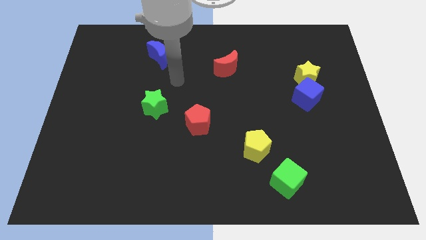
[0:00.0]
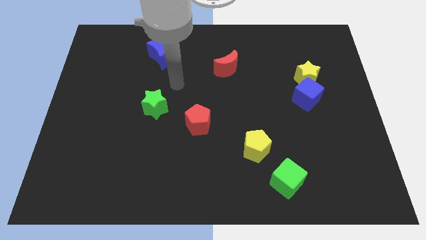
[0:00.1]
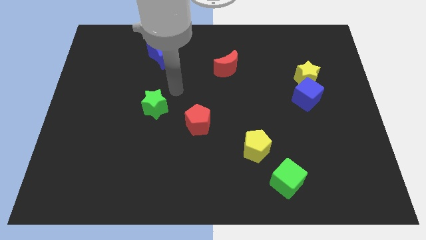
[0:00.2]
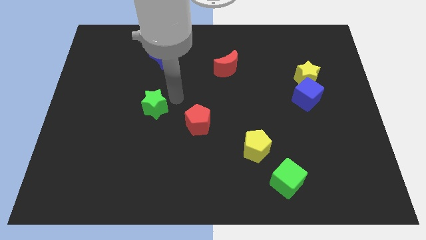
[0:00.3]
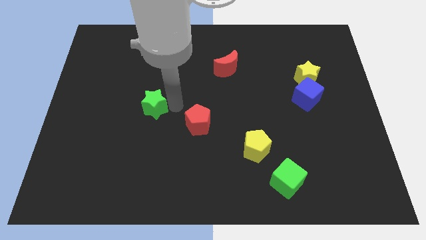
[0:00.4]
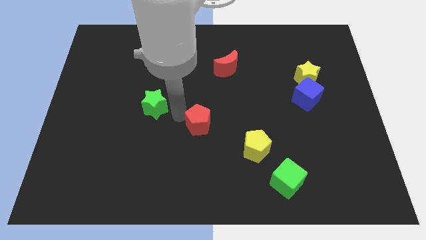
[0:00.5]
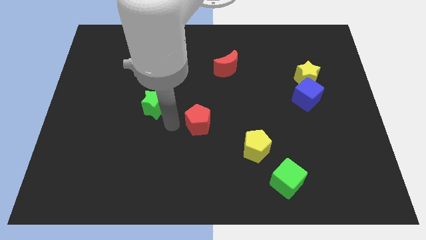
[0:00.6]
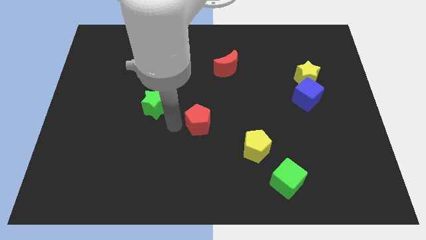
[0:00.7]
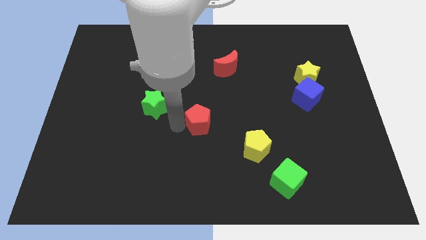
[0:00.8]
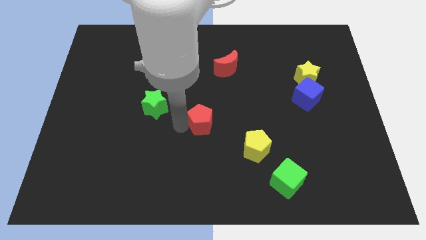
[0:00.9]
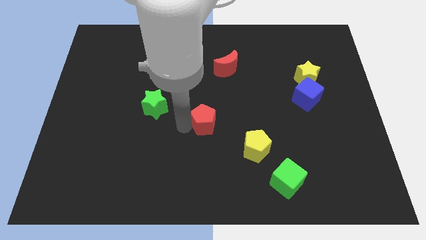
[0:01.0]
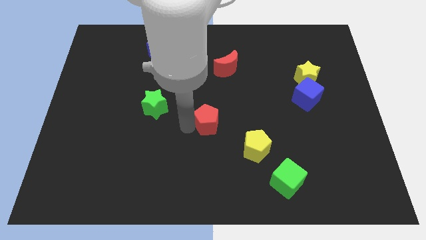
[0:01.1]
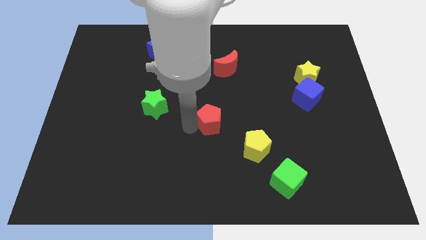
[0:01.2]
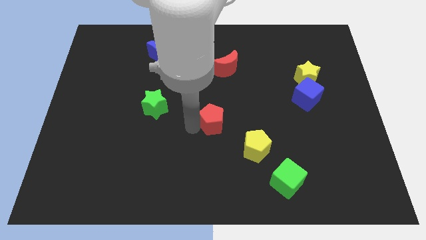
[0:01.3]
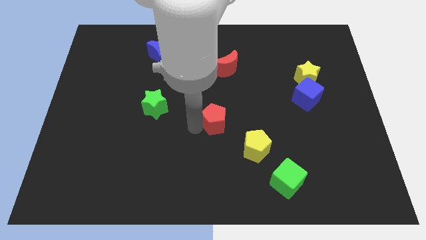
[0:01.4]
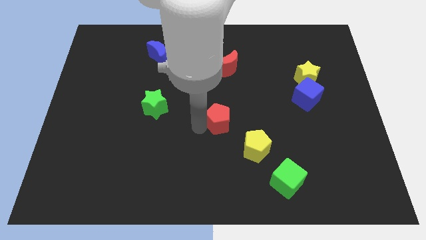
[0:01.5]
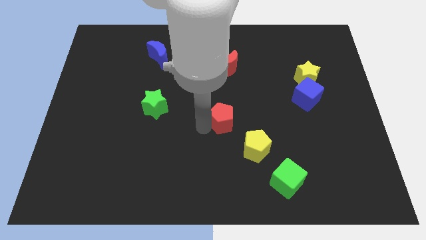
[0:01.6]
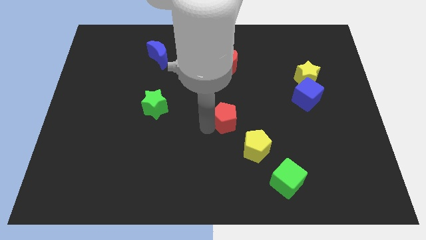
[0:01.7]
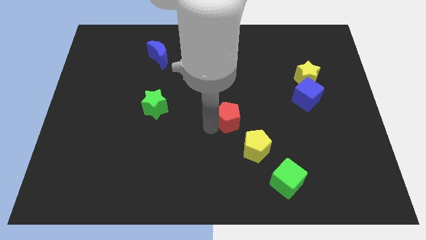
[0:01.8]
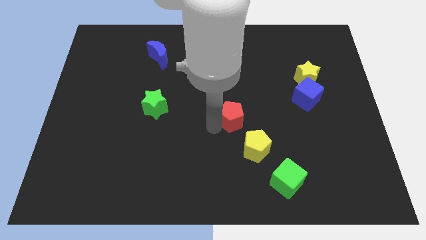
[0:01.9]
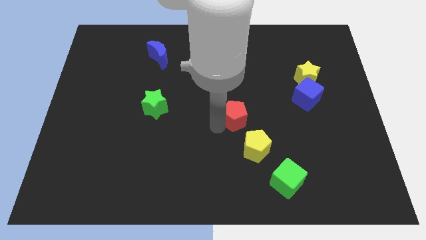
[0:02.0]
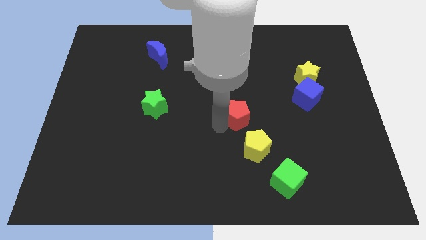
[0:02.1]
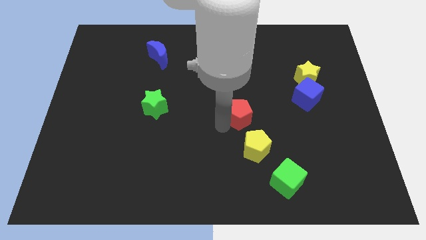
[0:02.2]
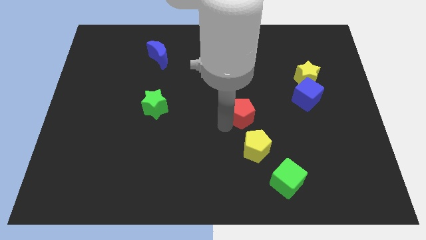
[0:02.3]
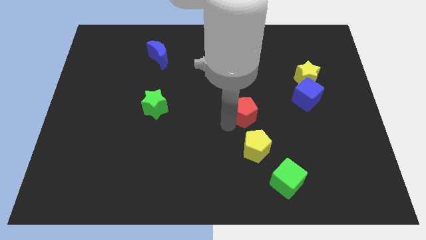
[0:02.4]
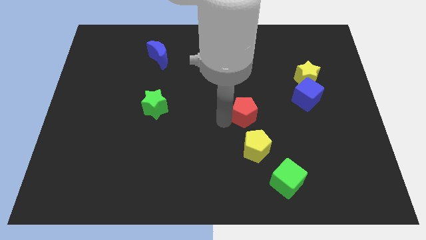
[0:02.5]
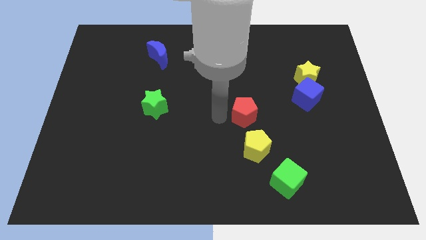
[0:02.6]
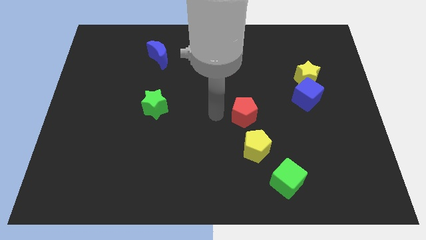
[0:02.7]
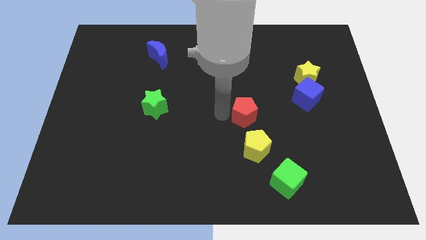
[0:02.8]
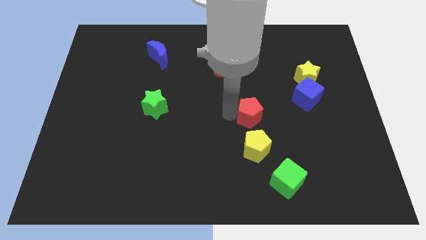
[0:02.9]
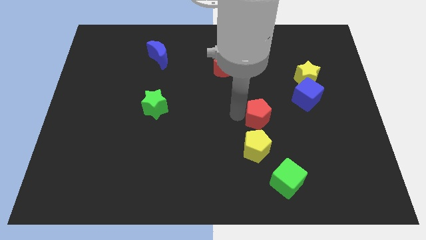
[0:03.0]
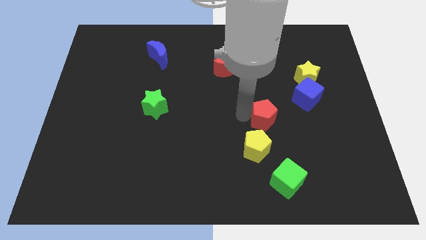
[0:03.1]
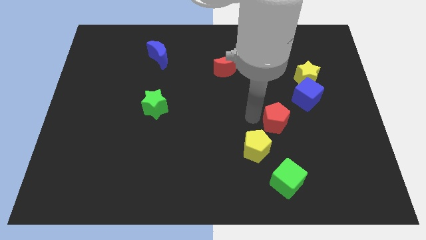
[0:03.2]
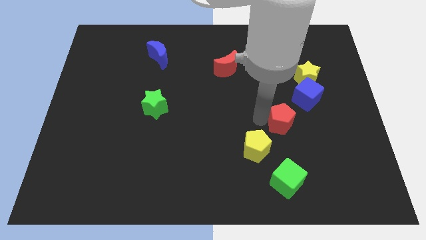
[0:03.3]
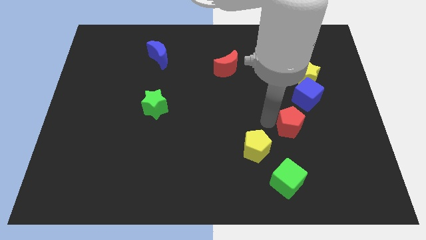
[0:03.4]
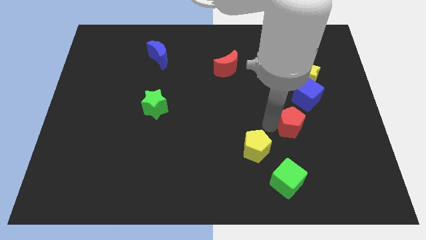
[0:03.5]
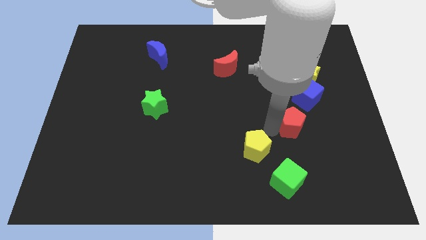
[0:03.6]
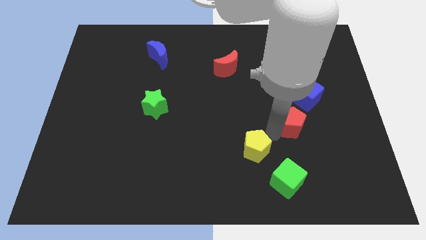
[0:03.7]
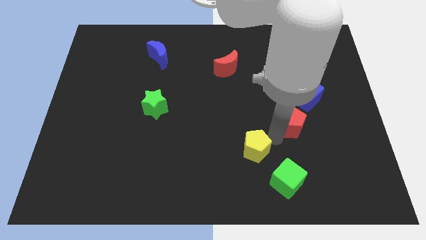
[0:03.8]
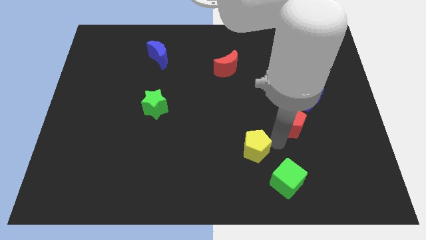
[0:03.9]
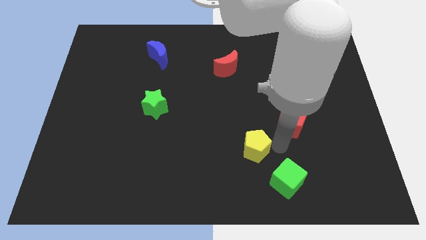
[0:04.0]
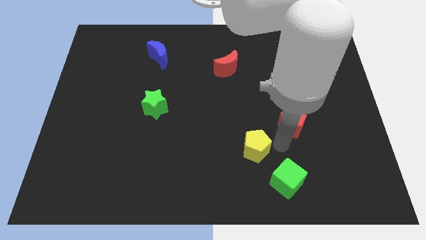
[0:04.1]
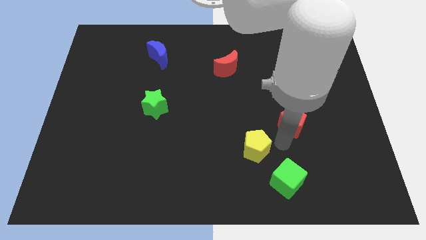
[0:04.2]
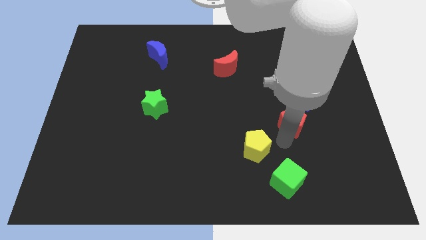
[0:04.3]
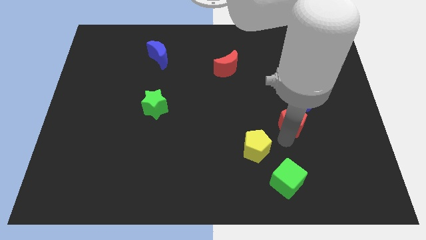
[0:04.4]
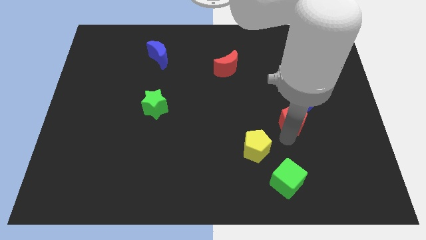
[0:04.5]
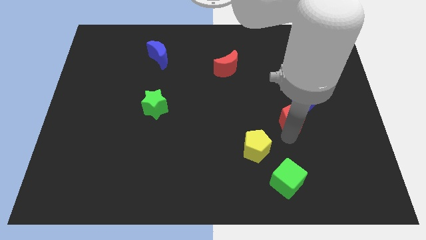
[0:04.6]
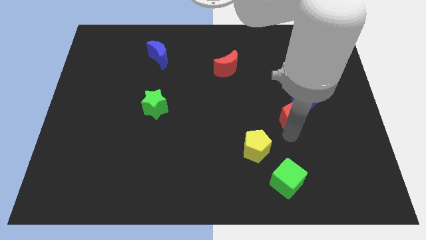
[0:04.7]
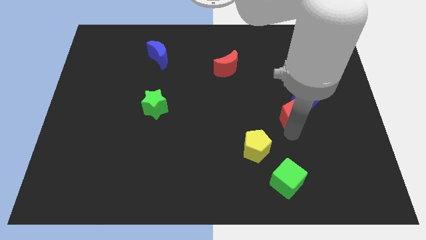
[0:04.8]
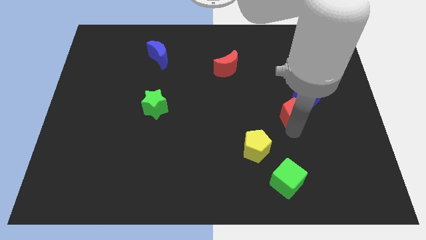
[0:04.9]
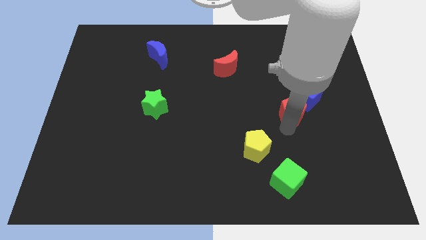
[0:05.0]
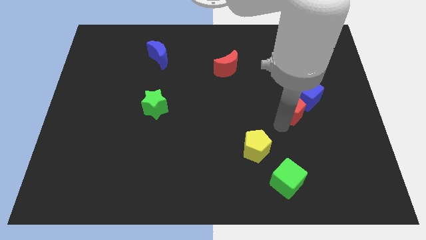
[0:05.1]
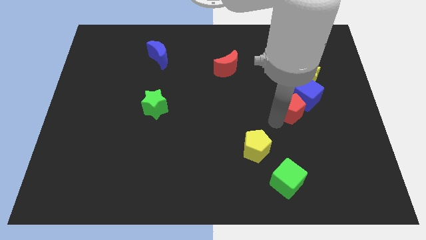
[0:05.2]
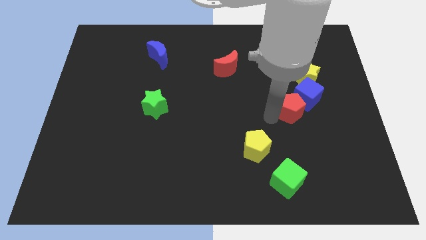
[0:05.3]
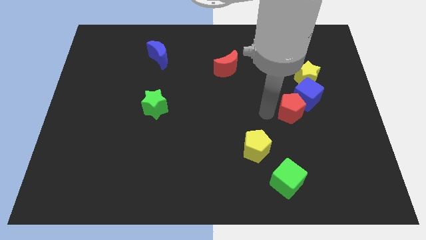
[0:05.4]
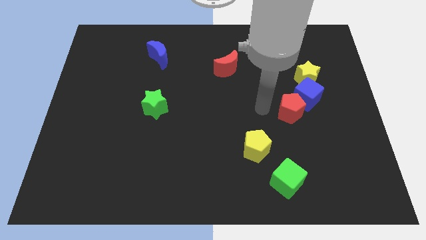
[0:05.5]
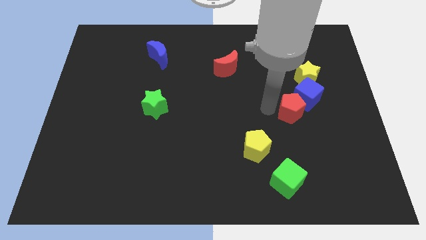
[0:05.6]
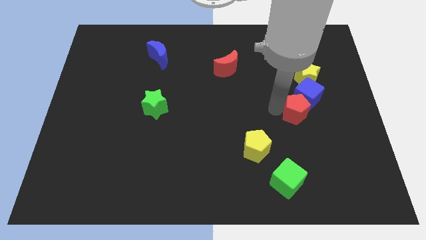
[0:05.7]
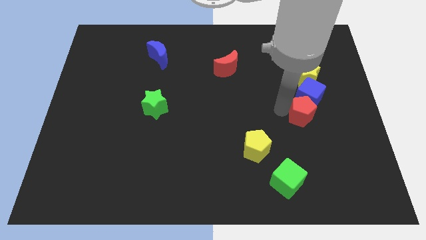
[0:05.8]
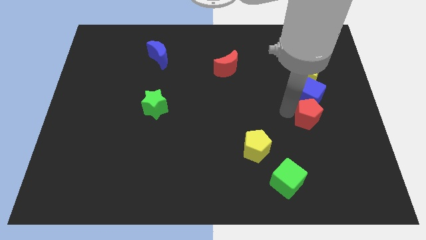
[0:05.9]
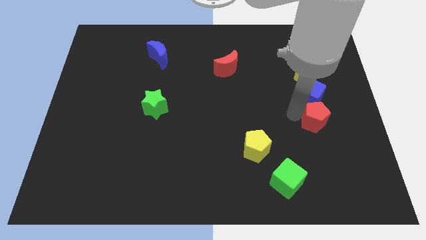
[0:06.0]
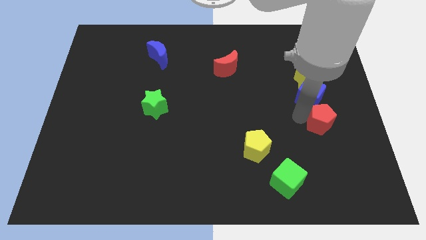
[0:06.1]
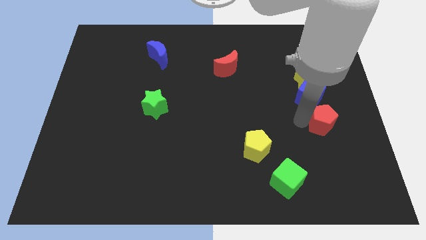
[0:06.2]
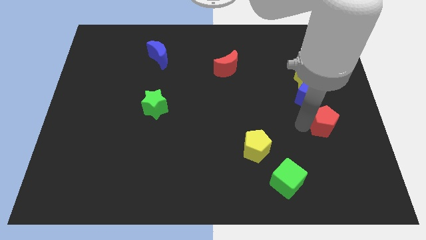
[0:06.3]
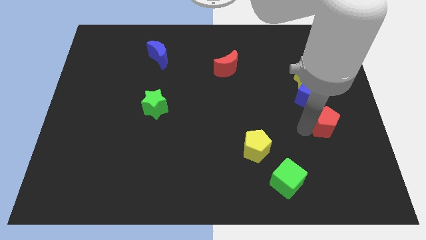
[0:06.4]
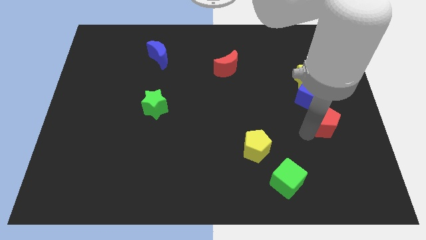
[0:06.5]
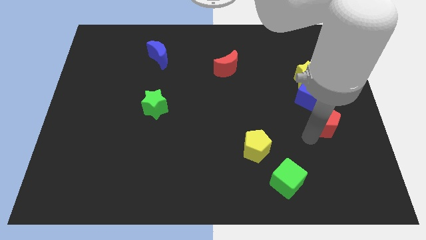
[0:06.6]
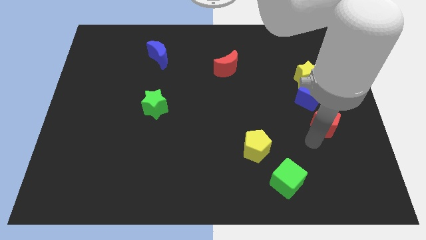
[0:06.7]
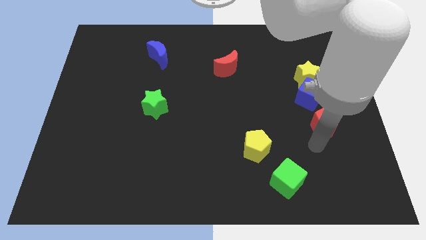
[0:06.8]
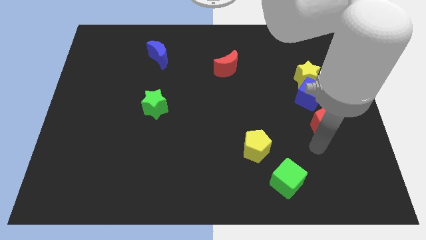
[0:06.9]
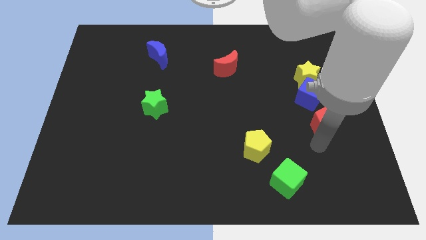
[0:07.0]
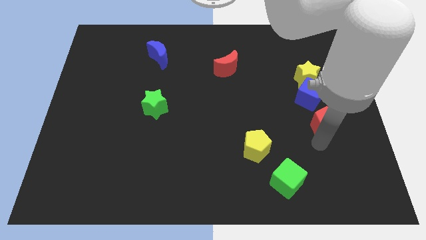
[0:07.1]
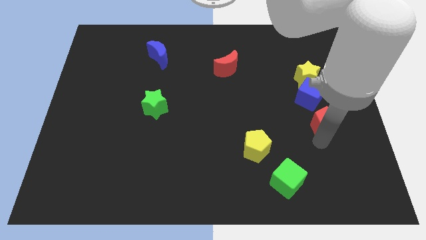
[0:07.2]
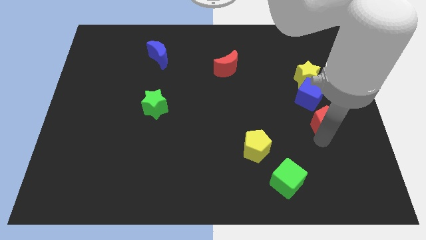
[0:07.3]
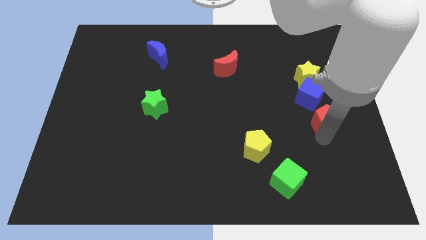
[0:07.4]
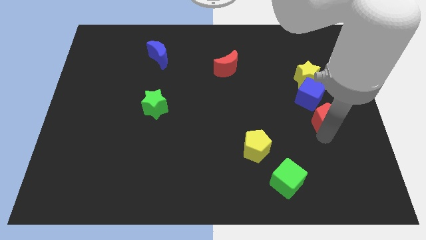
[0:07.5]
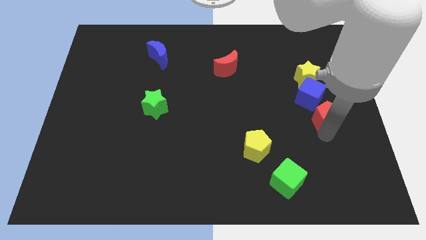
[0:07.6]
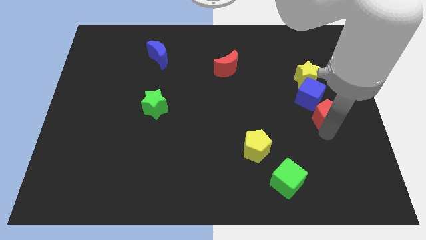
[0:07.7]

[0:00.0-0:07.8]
push the red pentagon to the right side of the board
